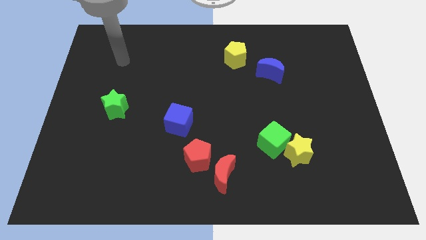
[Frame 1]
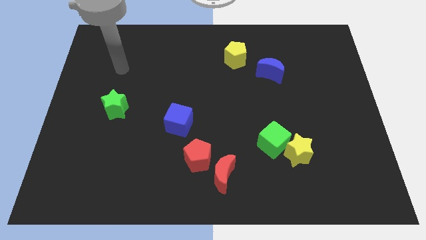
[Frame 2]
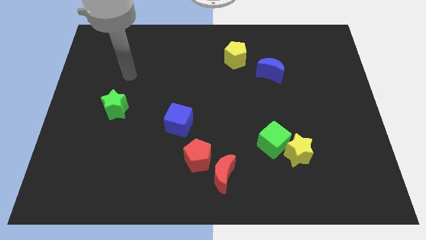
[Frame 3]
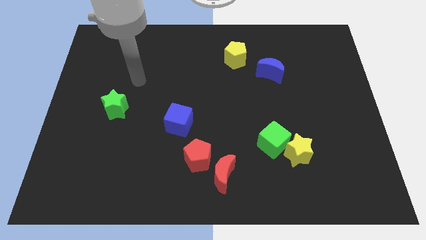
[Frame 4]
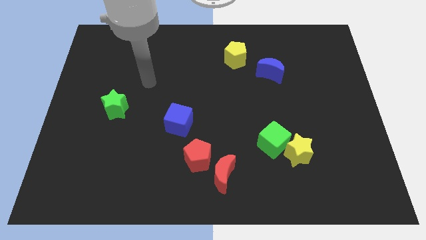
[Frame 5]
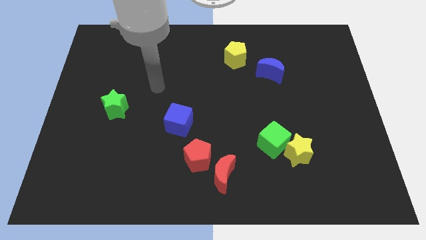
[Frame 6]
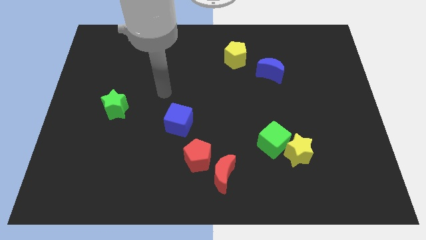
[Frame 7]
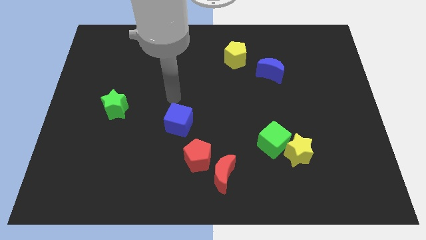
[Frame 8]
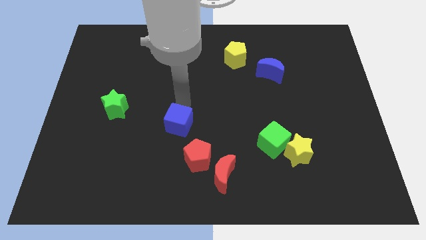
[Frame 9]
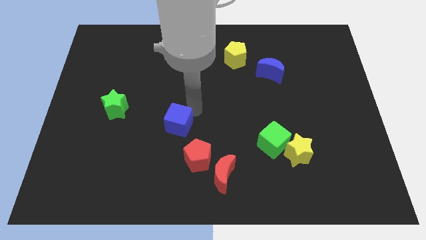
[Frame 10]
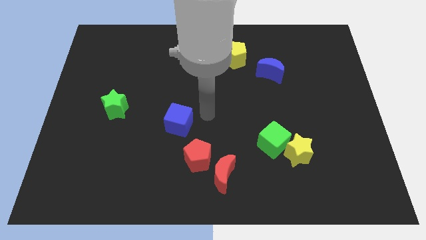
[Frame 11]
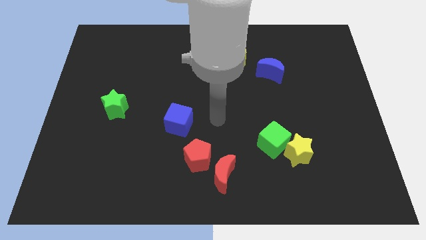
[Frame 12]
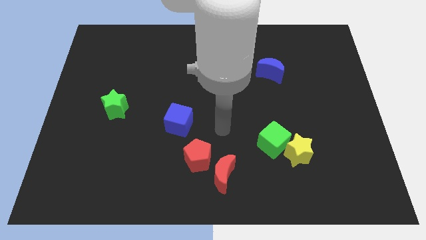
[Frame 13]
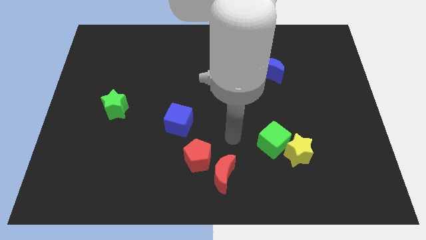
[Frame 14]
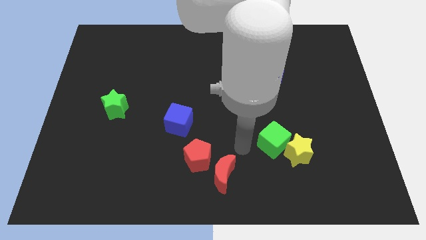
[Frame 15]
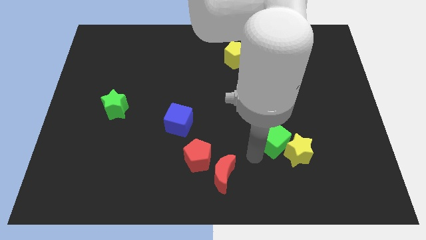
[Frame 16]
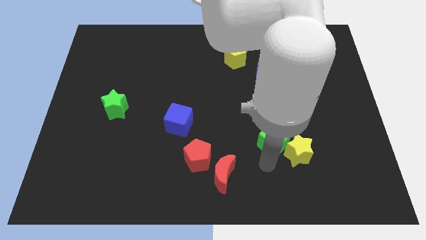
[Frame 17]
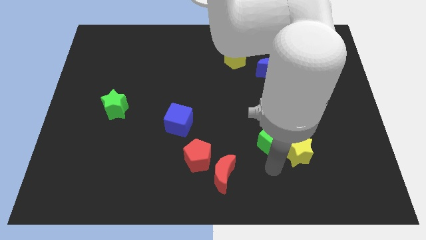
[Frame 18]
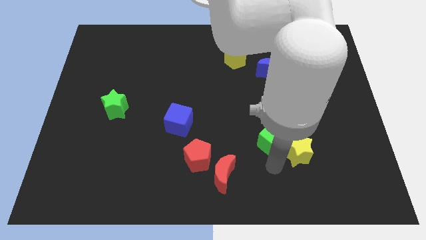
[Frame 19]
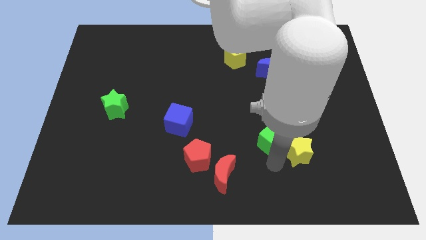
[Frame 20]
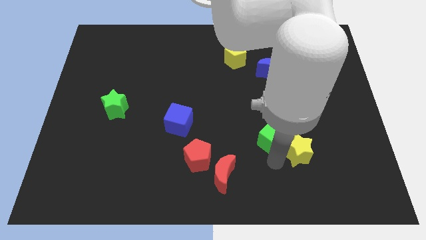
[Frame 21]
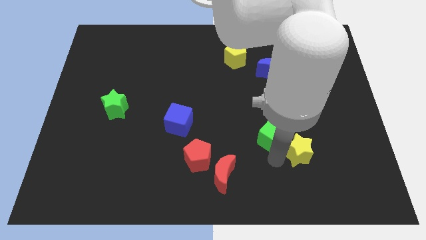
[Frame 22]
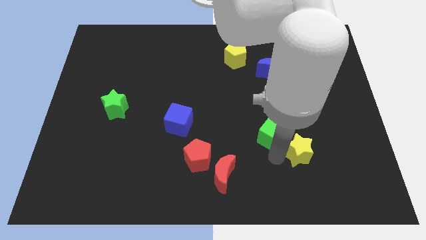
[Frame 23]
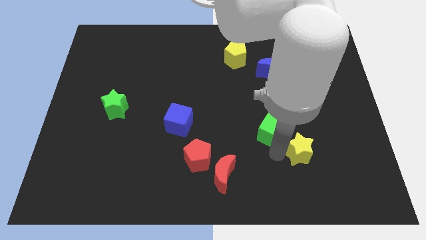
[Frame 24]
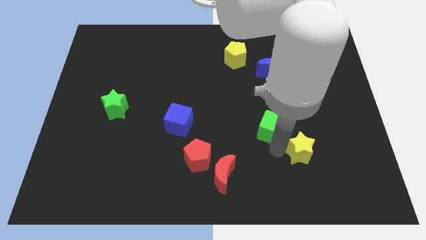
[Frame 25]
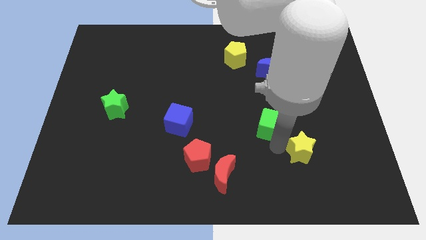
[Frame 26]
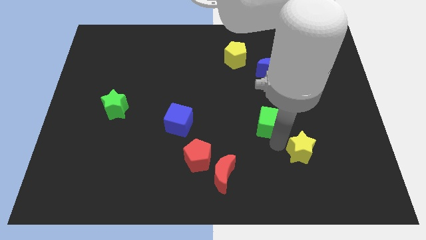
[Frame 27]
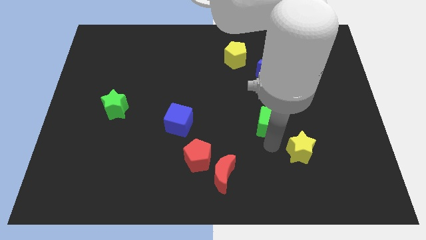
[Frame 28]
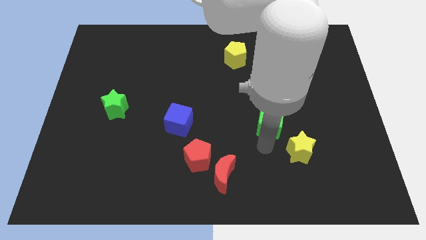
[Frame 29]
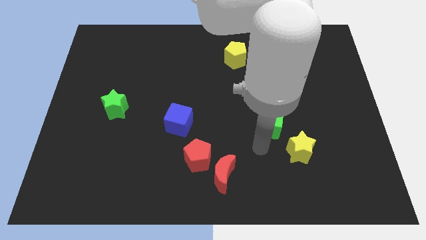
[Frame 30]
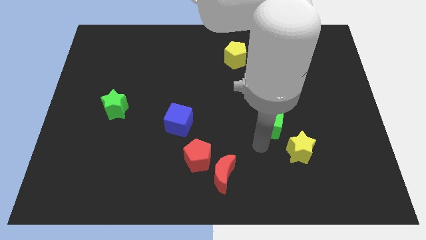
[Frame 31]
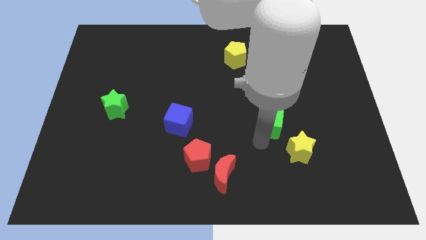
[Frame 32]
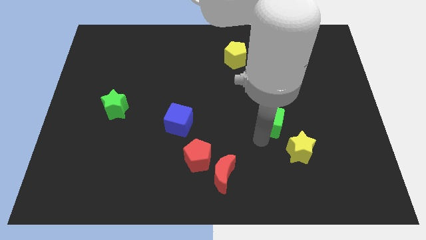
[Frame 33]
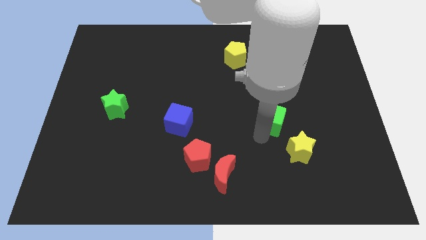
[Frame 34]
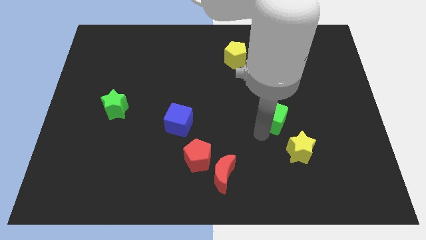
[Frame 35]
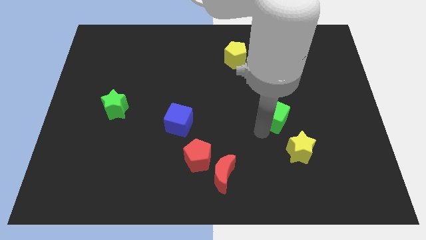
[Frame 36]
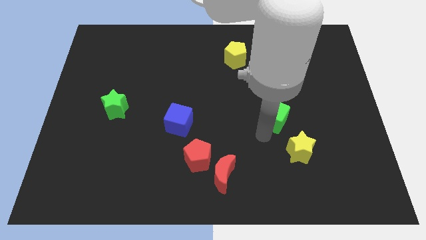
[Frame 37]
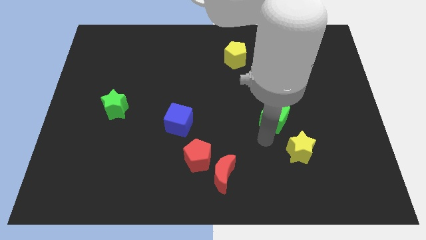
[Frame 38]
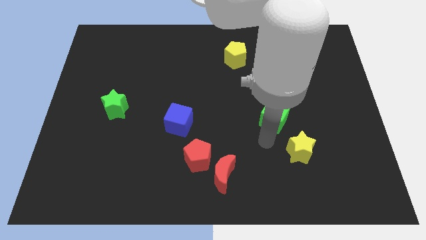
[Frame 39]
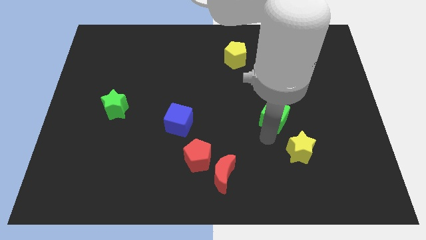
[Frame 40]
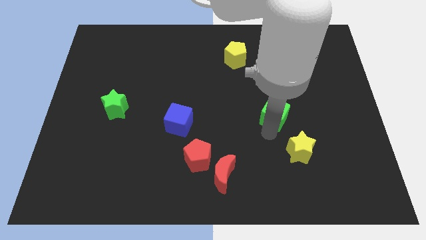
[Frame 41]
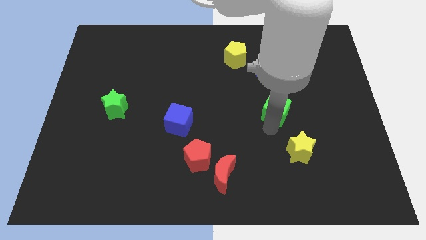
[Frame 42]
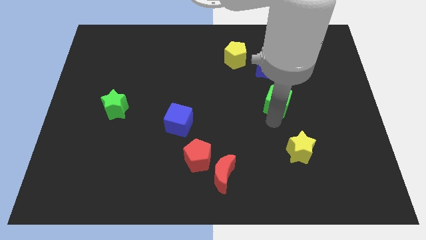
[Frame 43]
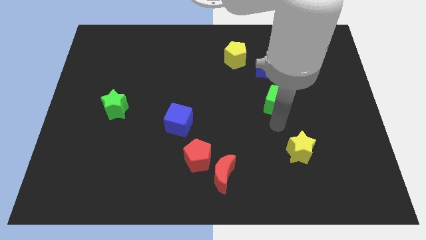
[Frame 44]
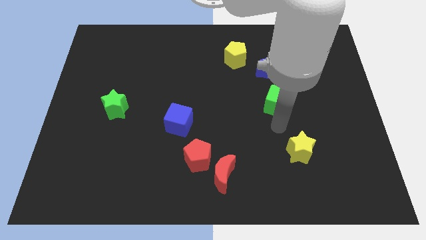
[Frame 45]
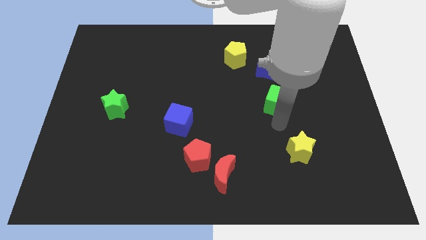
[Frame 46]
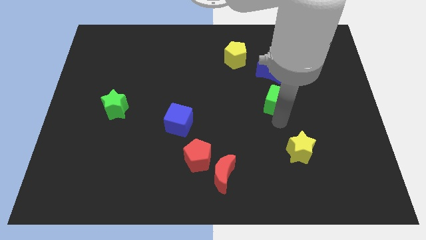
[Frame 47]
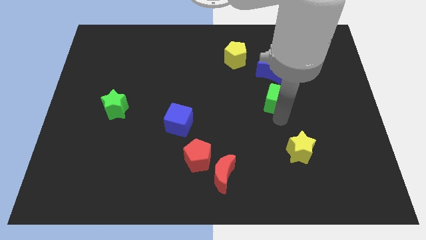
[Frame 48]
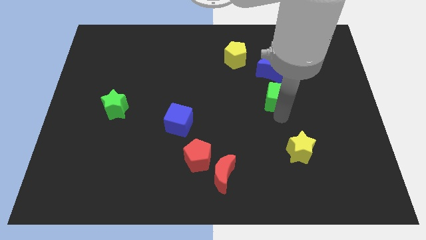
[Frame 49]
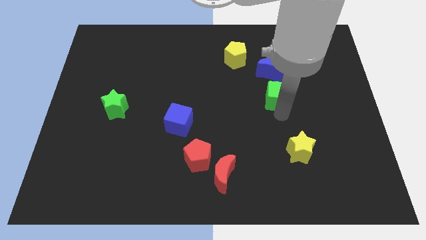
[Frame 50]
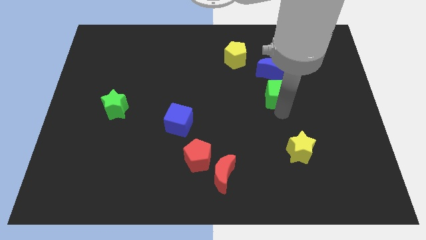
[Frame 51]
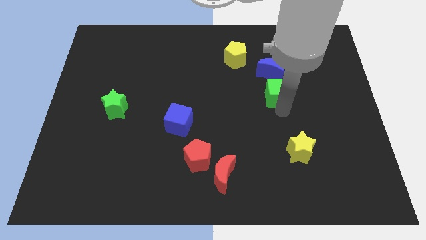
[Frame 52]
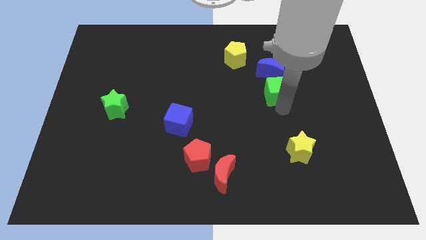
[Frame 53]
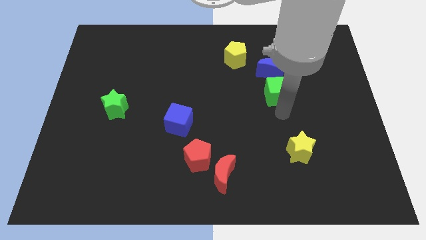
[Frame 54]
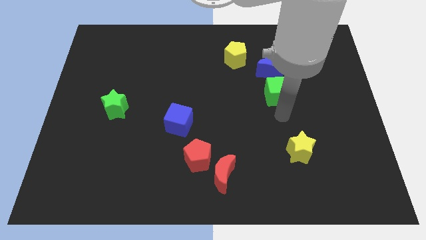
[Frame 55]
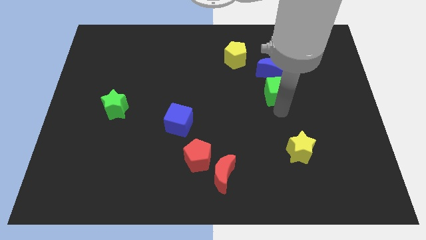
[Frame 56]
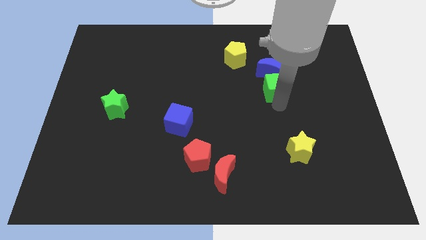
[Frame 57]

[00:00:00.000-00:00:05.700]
slide the green cube towards the blue moon

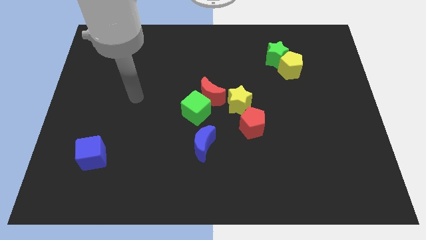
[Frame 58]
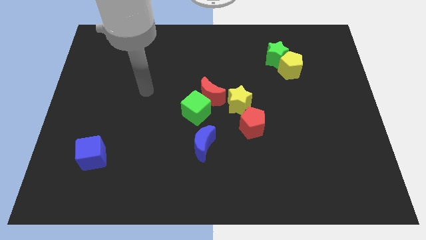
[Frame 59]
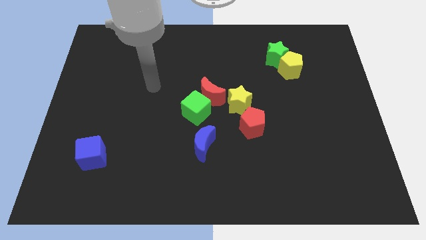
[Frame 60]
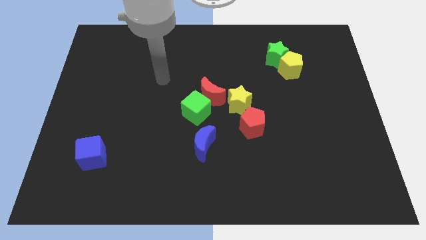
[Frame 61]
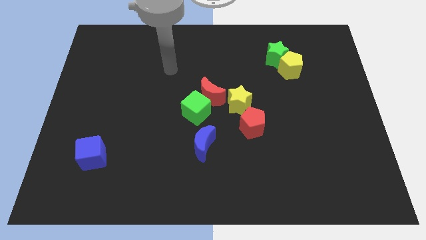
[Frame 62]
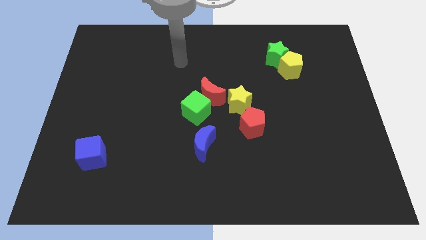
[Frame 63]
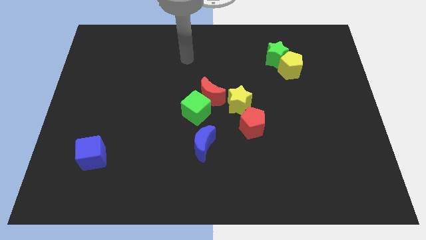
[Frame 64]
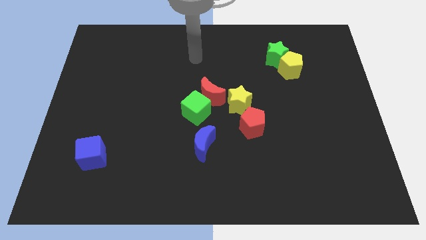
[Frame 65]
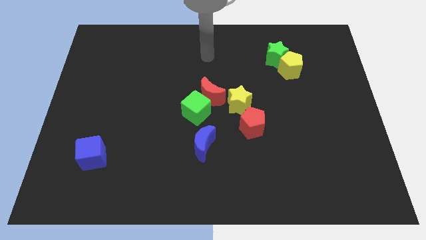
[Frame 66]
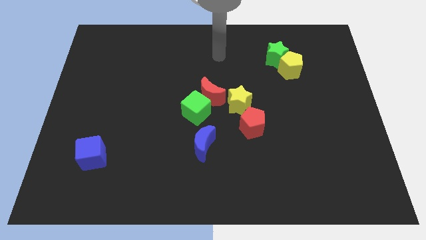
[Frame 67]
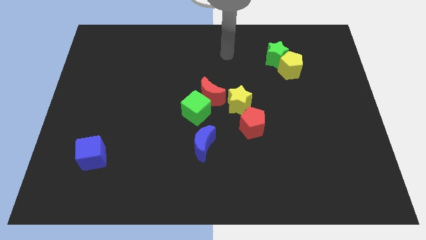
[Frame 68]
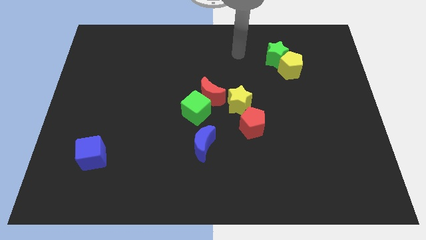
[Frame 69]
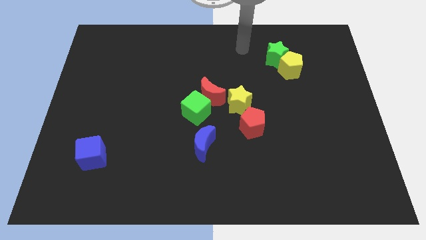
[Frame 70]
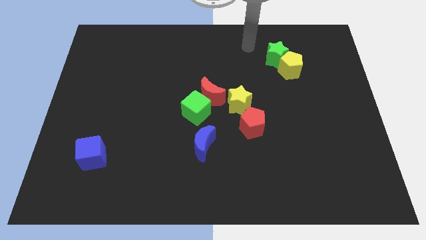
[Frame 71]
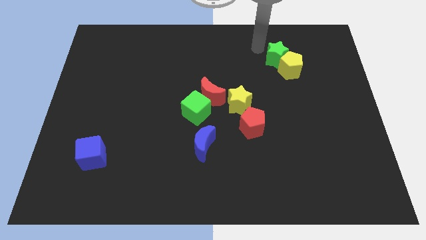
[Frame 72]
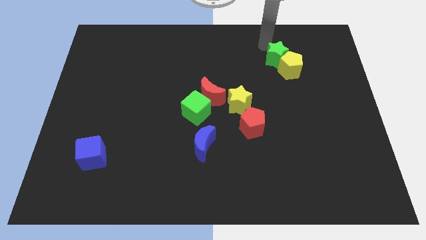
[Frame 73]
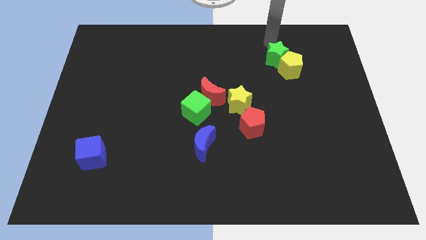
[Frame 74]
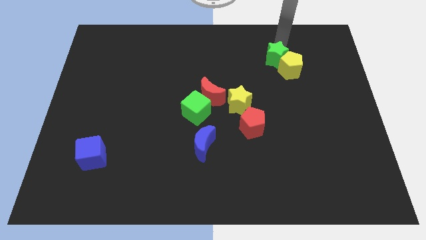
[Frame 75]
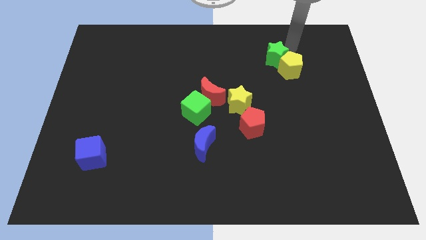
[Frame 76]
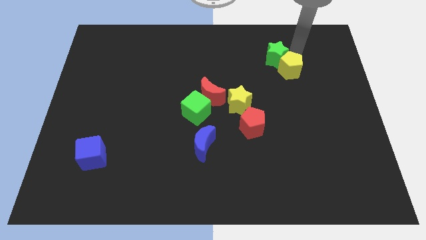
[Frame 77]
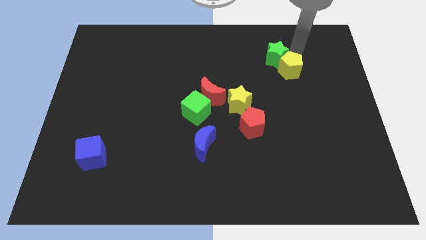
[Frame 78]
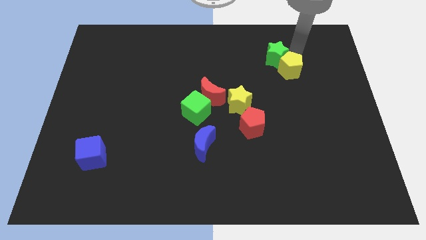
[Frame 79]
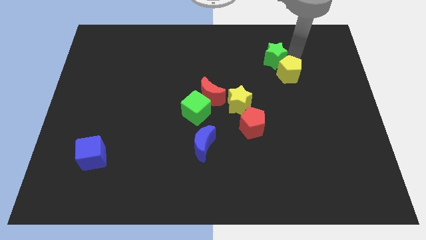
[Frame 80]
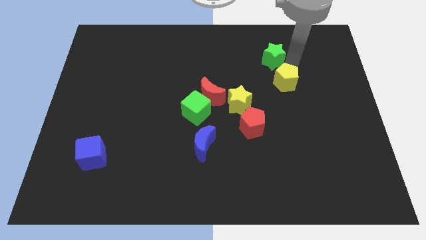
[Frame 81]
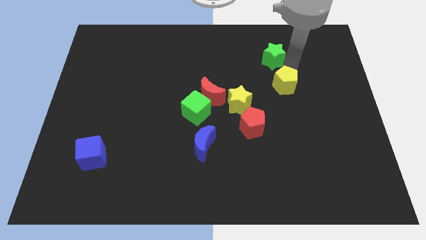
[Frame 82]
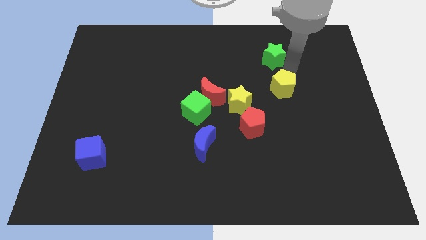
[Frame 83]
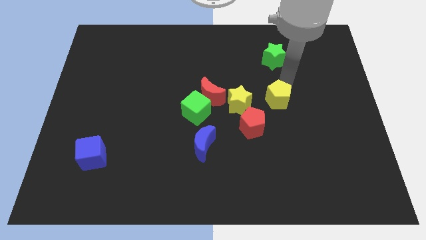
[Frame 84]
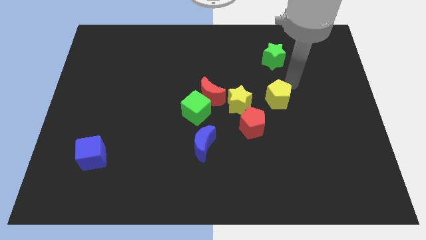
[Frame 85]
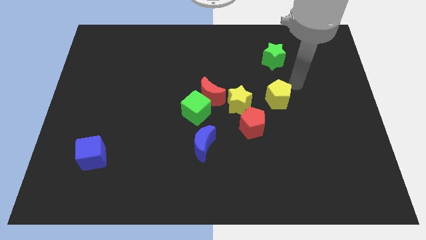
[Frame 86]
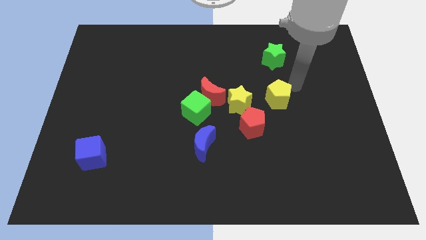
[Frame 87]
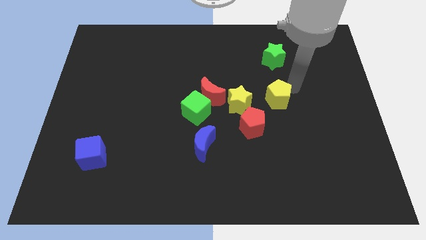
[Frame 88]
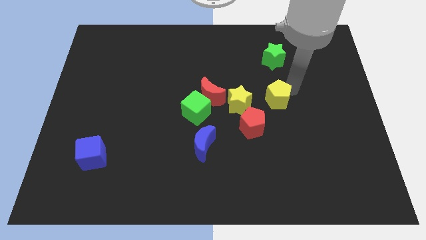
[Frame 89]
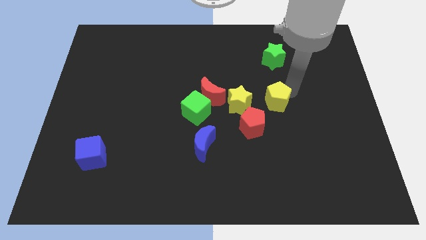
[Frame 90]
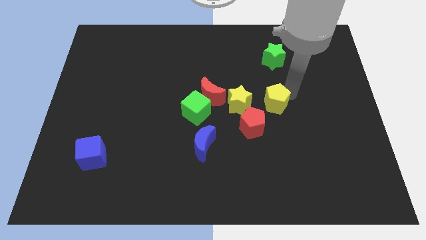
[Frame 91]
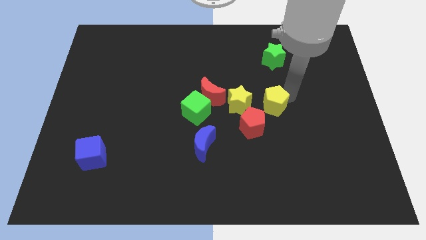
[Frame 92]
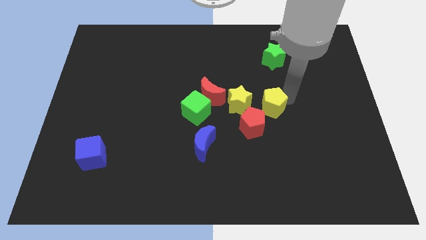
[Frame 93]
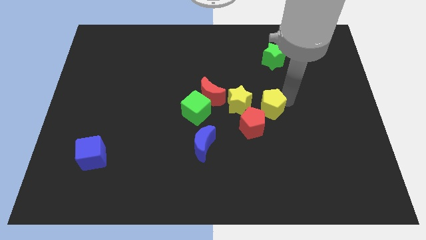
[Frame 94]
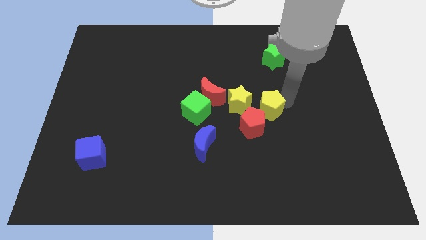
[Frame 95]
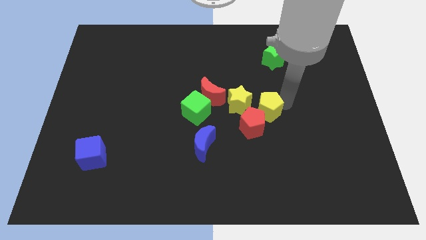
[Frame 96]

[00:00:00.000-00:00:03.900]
move the yellow pentagon next to the red pentagon
